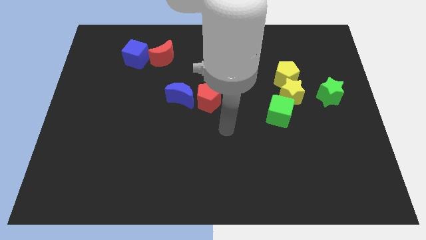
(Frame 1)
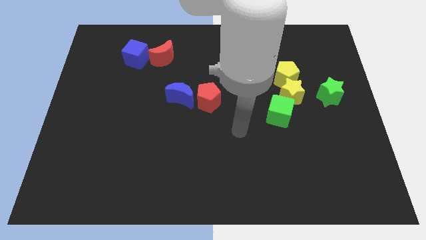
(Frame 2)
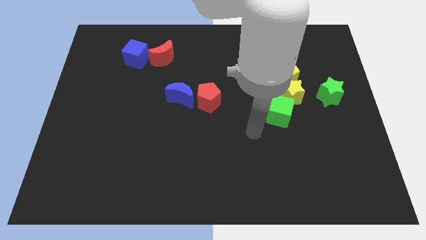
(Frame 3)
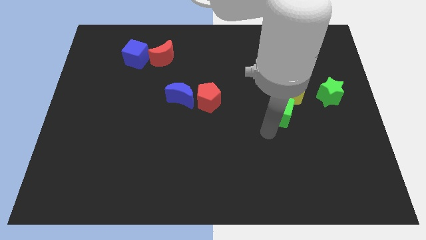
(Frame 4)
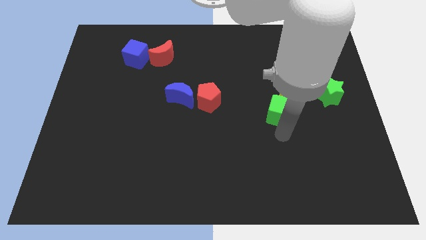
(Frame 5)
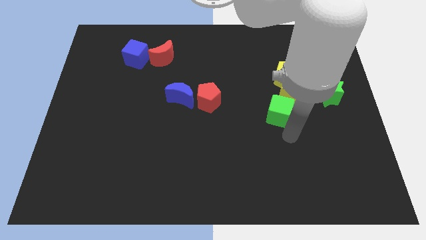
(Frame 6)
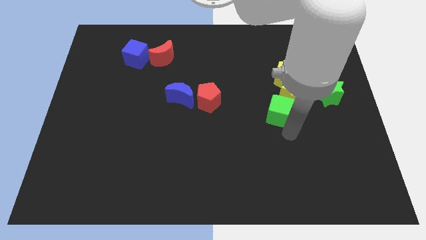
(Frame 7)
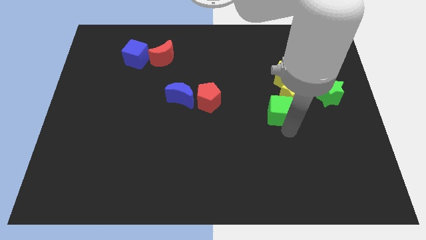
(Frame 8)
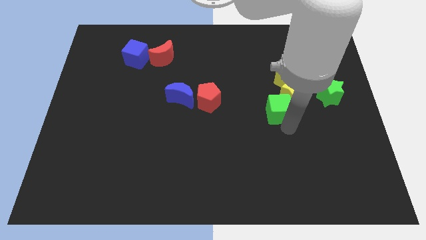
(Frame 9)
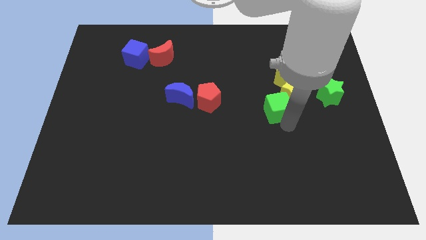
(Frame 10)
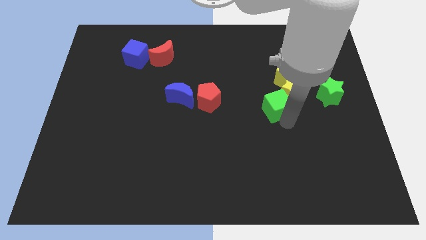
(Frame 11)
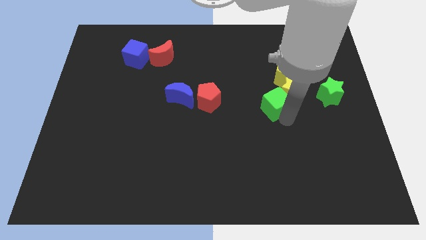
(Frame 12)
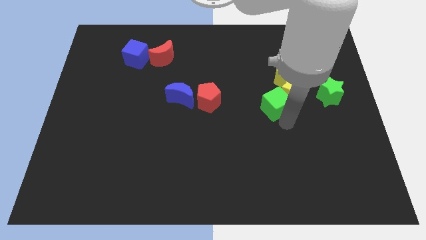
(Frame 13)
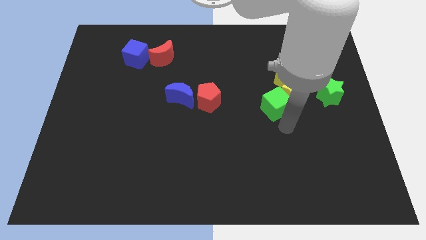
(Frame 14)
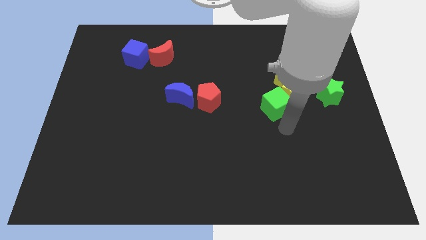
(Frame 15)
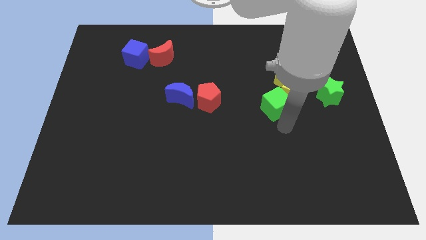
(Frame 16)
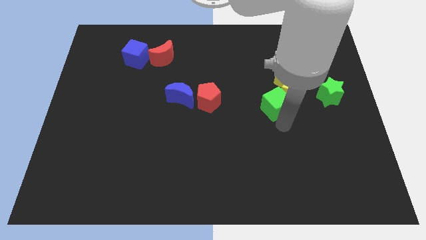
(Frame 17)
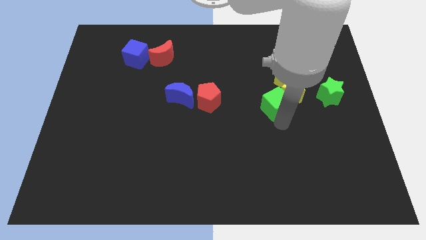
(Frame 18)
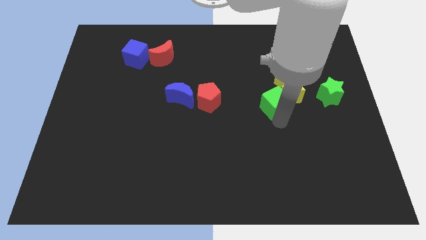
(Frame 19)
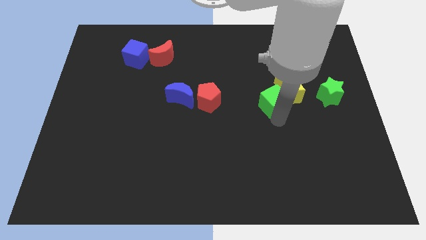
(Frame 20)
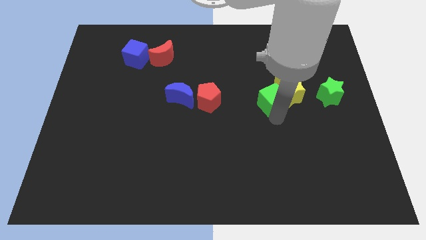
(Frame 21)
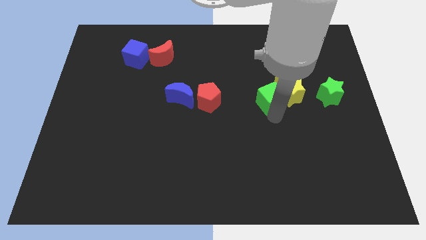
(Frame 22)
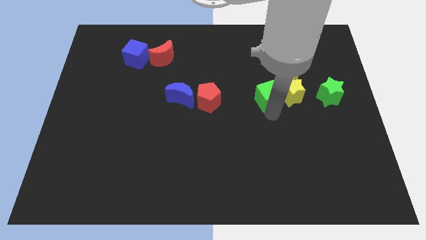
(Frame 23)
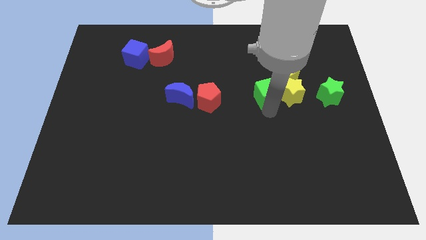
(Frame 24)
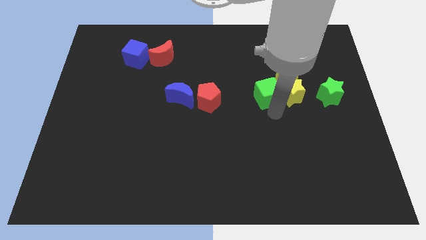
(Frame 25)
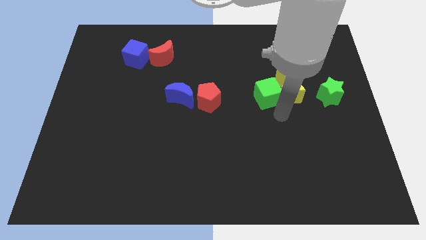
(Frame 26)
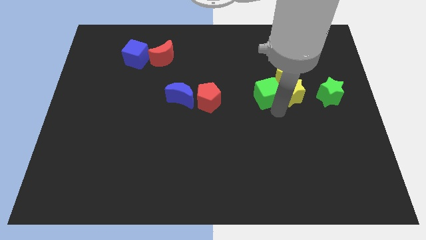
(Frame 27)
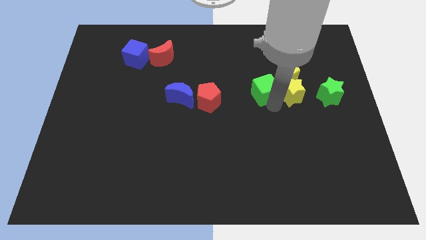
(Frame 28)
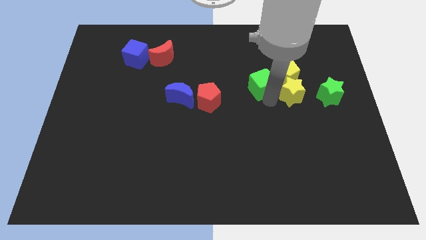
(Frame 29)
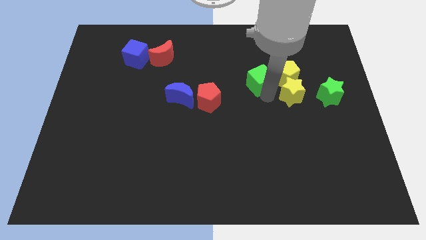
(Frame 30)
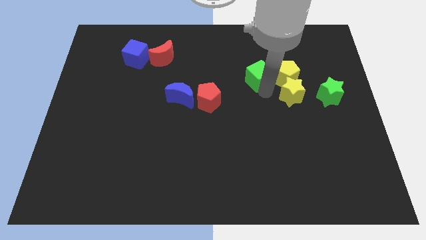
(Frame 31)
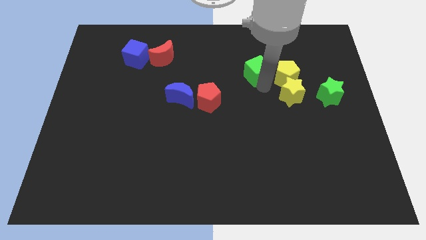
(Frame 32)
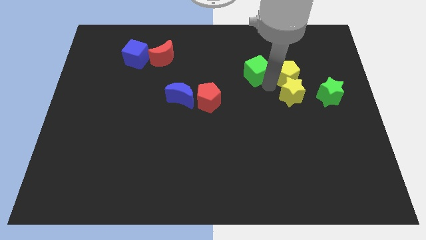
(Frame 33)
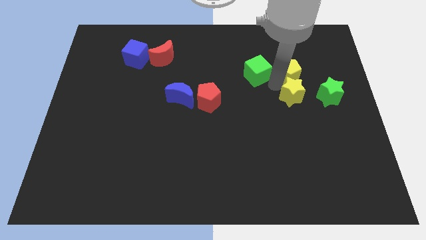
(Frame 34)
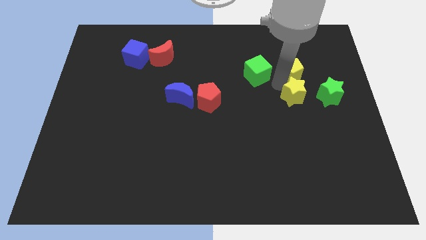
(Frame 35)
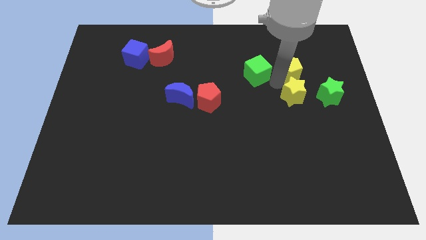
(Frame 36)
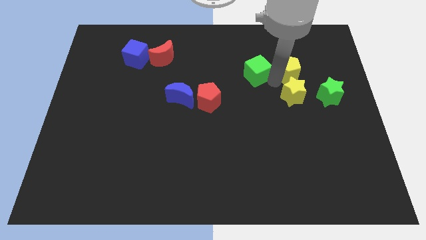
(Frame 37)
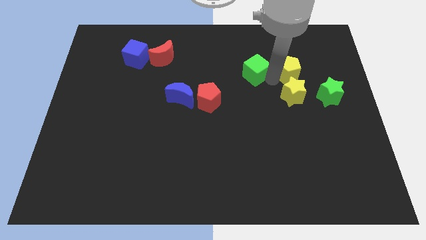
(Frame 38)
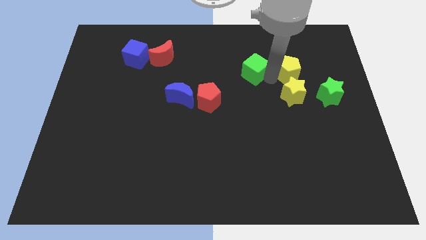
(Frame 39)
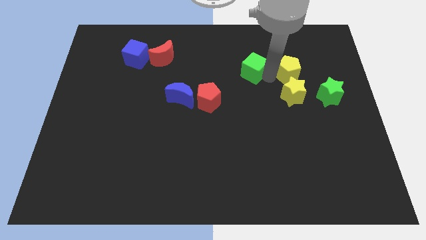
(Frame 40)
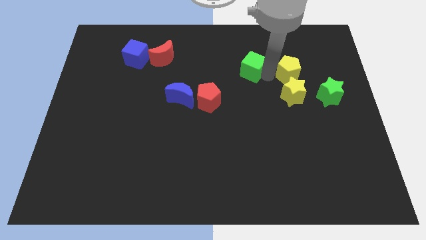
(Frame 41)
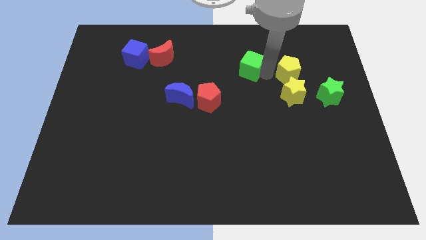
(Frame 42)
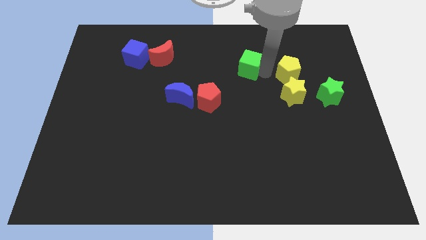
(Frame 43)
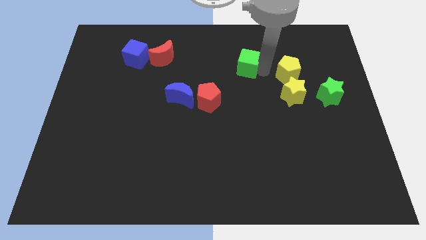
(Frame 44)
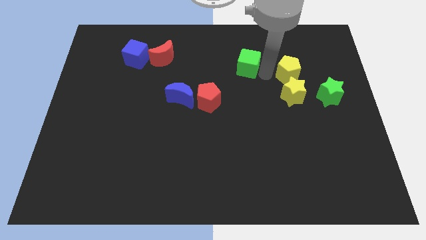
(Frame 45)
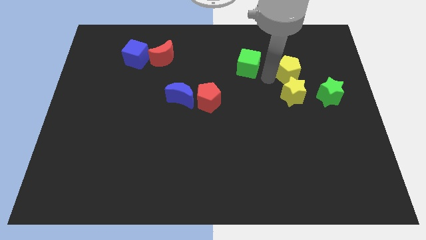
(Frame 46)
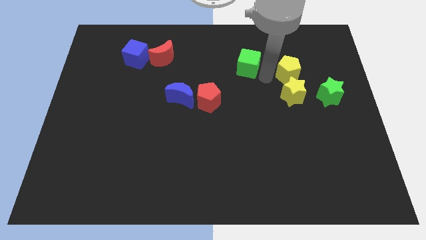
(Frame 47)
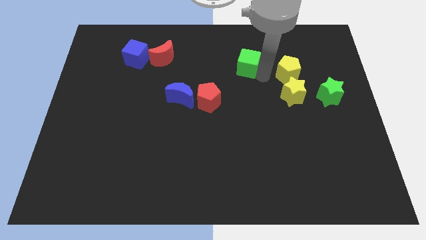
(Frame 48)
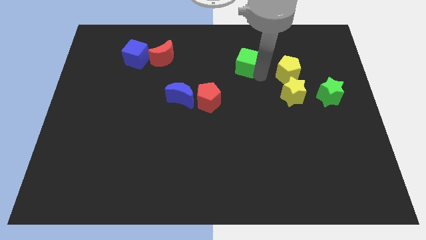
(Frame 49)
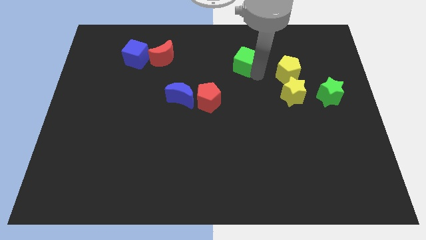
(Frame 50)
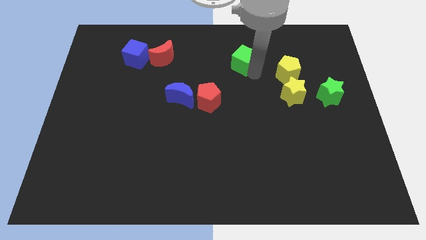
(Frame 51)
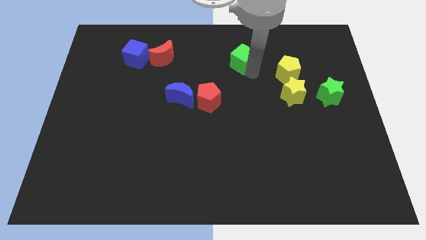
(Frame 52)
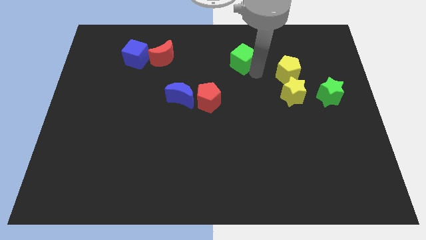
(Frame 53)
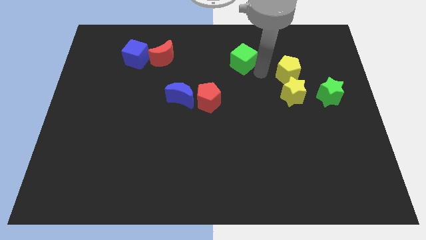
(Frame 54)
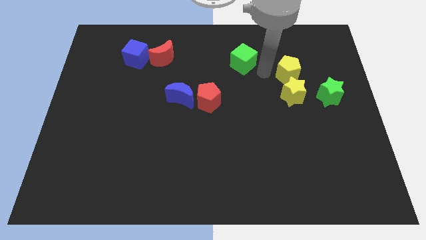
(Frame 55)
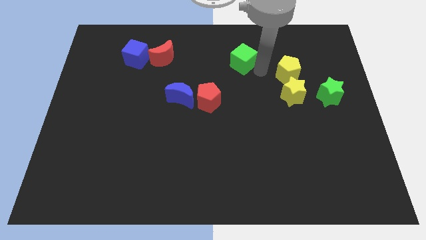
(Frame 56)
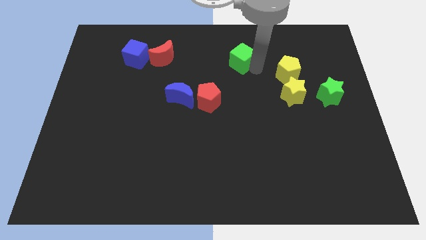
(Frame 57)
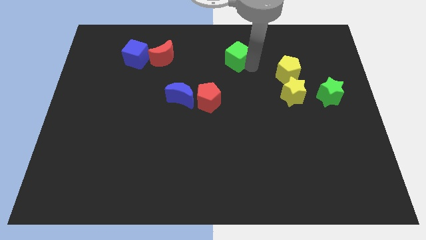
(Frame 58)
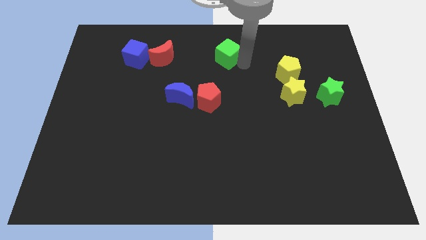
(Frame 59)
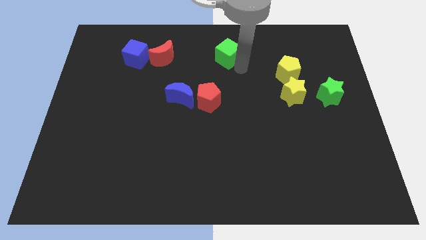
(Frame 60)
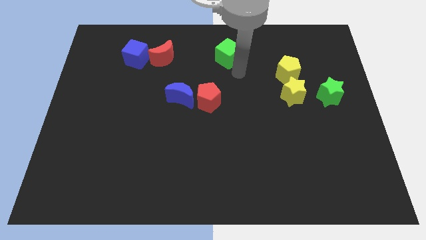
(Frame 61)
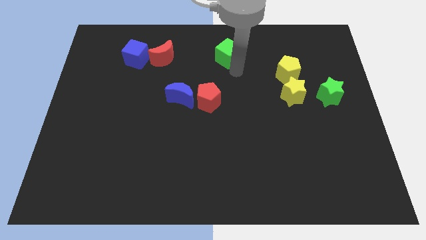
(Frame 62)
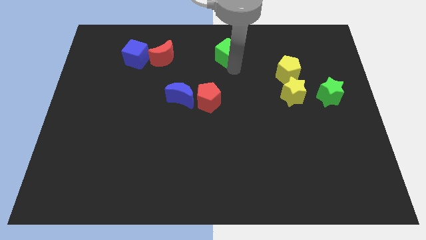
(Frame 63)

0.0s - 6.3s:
put the green cube to the top

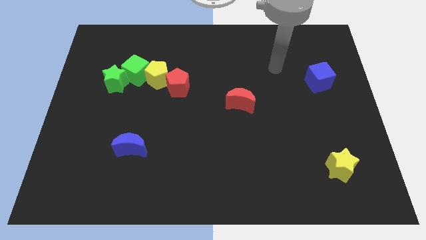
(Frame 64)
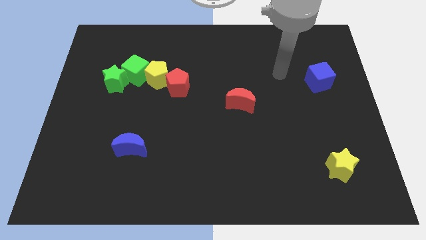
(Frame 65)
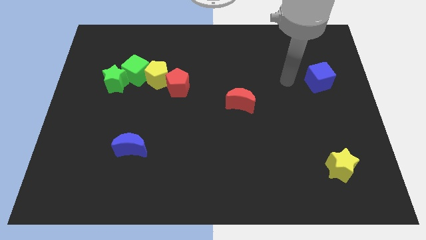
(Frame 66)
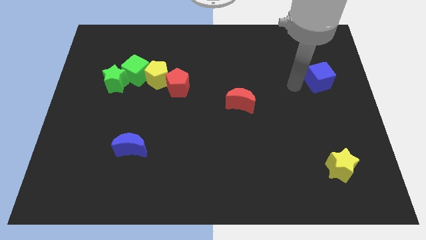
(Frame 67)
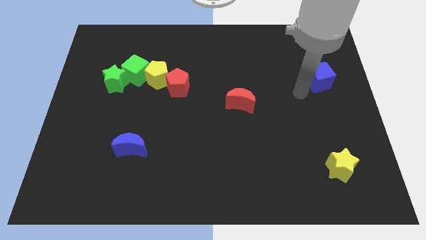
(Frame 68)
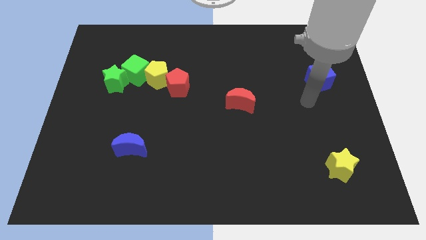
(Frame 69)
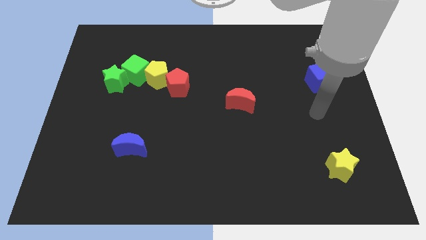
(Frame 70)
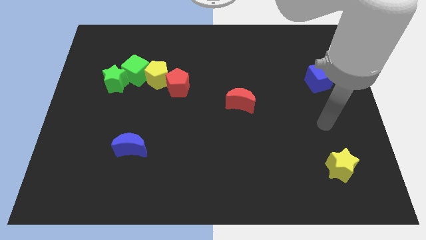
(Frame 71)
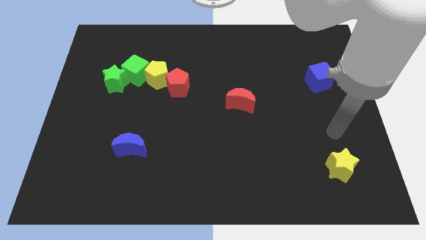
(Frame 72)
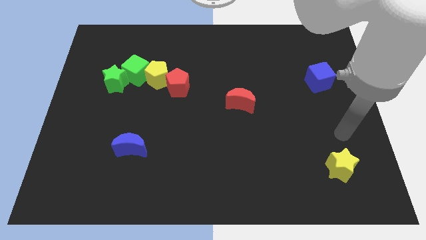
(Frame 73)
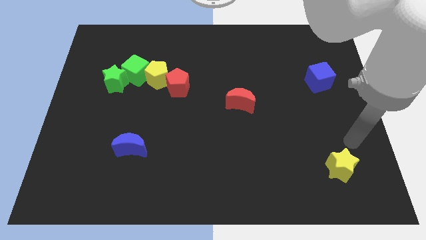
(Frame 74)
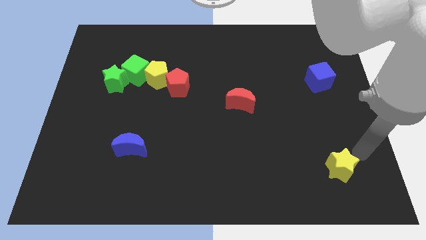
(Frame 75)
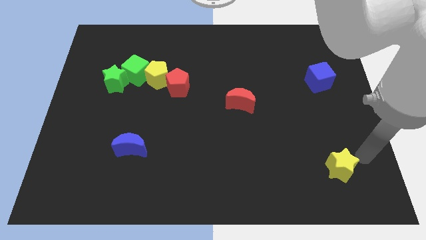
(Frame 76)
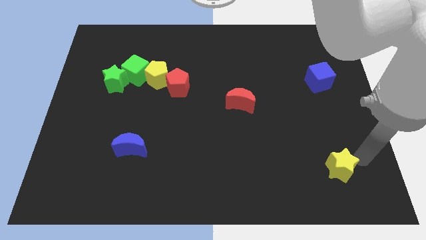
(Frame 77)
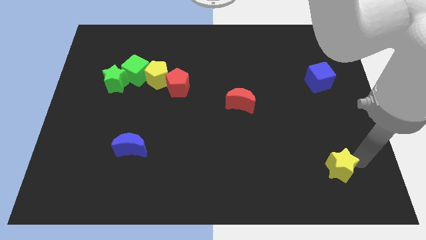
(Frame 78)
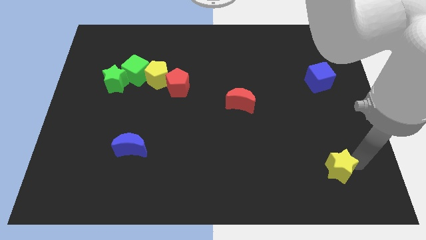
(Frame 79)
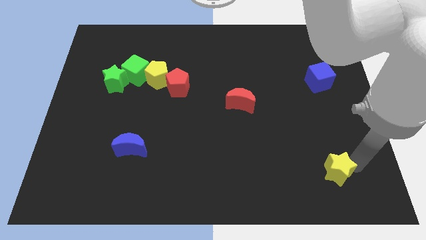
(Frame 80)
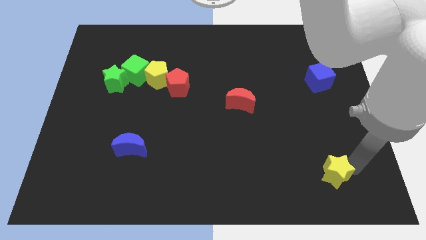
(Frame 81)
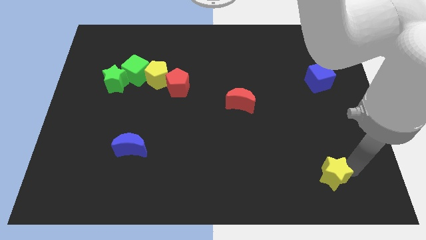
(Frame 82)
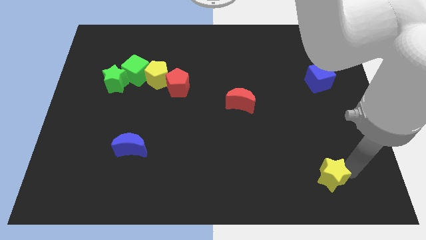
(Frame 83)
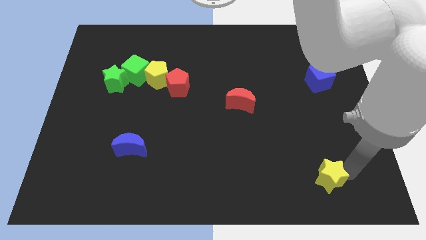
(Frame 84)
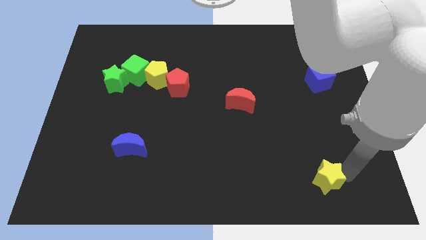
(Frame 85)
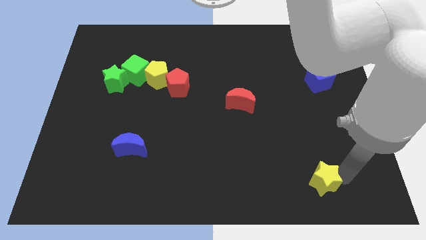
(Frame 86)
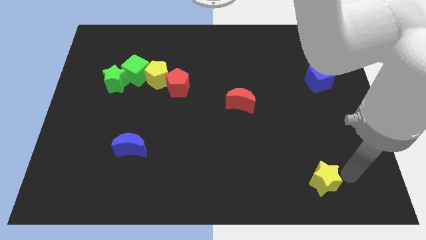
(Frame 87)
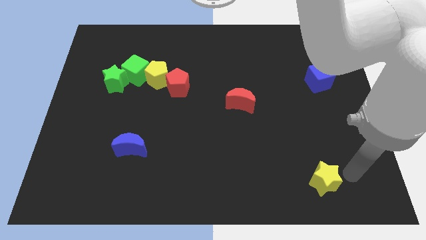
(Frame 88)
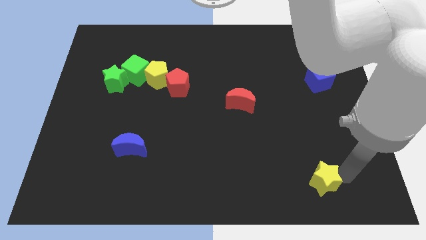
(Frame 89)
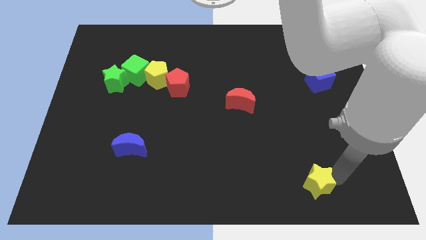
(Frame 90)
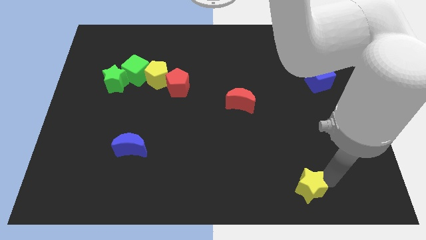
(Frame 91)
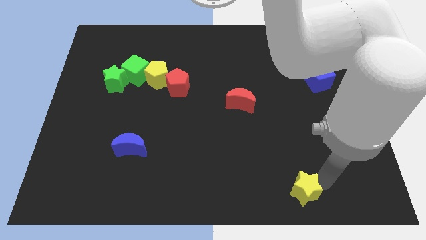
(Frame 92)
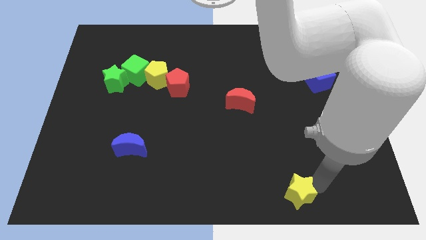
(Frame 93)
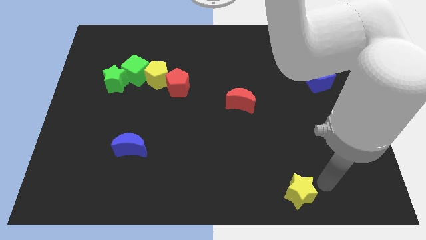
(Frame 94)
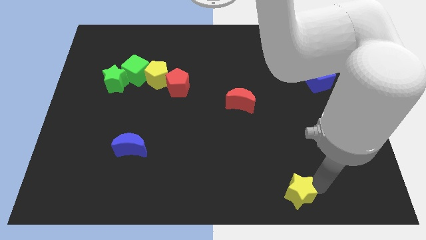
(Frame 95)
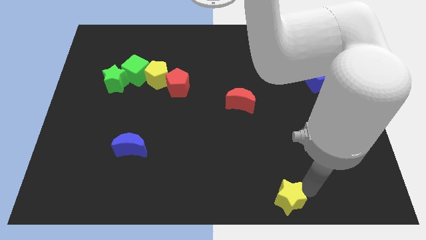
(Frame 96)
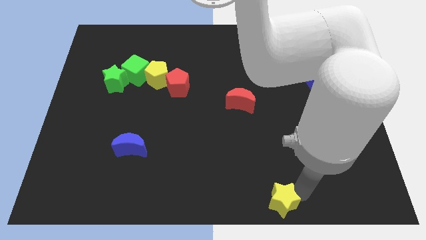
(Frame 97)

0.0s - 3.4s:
move the yellow star to the bottom
